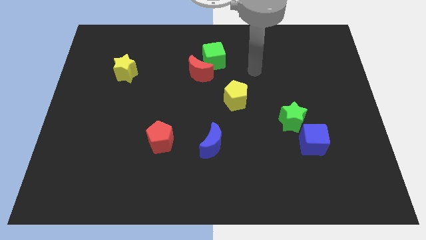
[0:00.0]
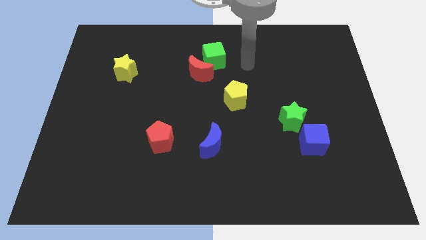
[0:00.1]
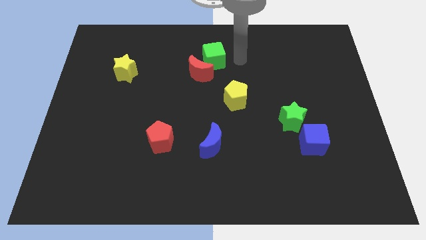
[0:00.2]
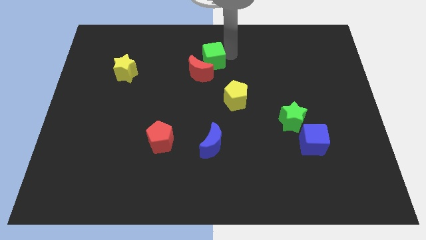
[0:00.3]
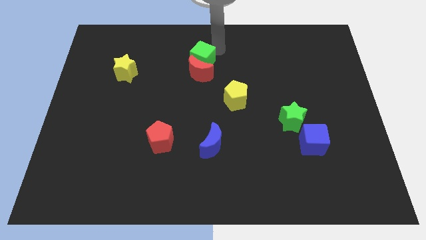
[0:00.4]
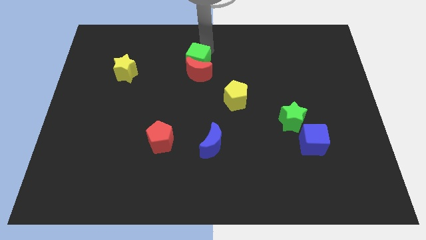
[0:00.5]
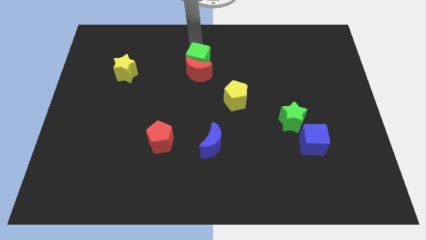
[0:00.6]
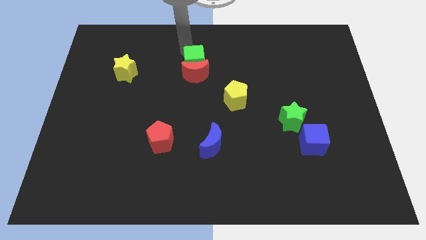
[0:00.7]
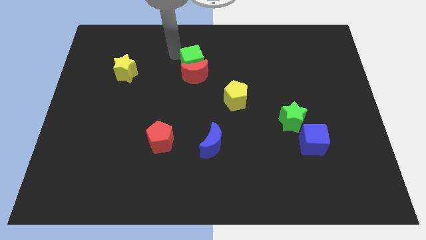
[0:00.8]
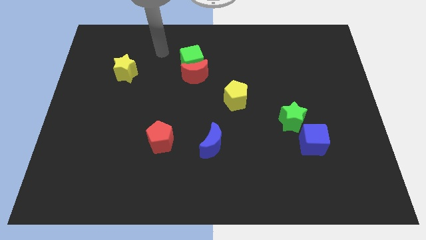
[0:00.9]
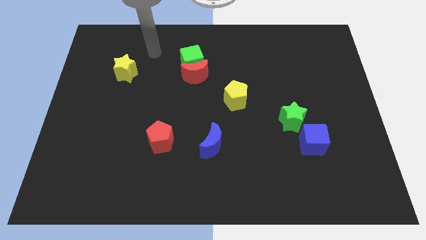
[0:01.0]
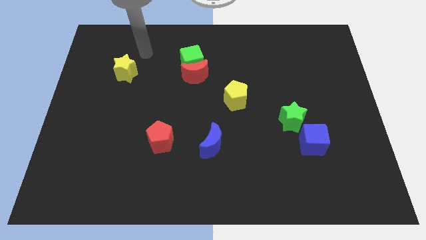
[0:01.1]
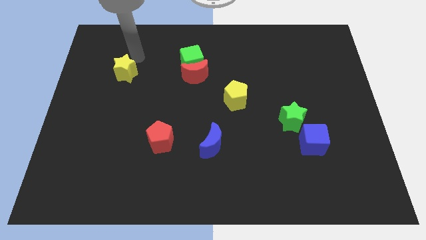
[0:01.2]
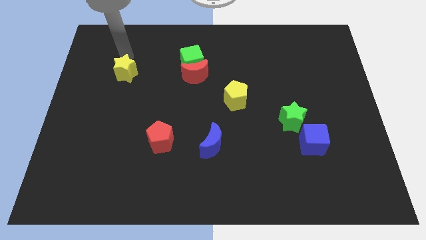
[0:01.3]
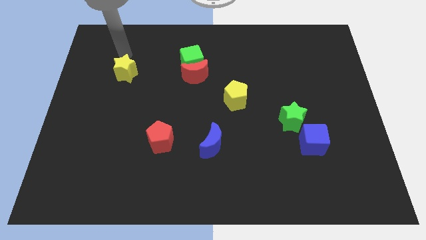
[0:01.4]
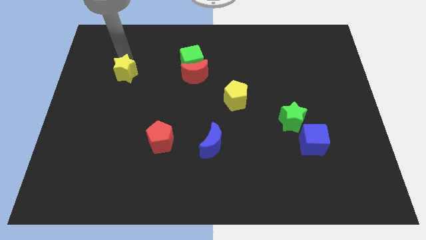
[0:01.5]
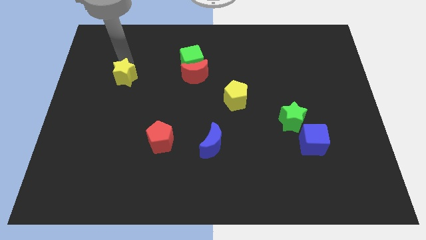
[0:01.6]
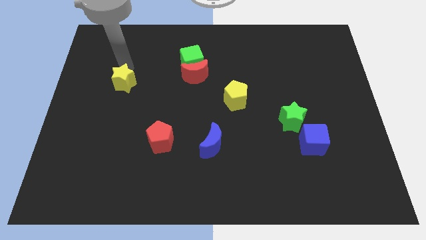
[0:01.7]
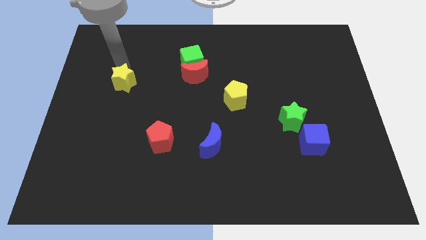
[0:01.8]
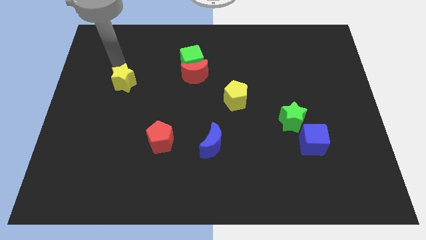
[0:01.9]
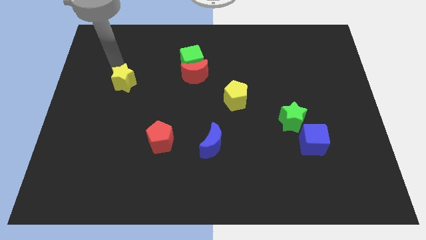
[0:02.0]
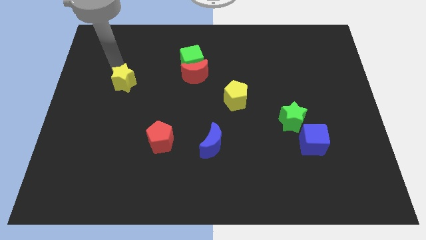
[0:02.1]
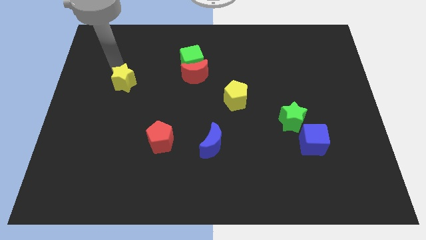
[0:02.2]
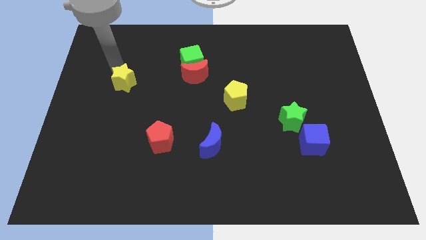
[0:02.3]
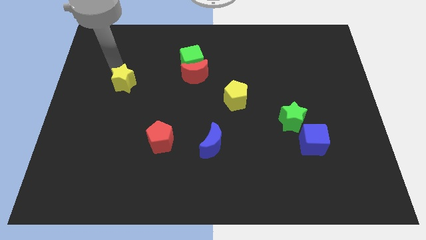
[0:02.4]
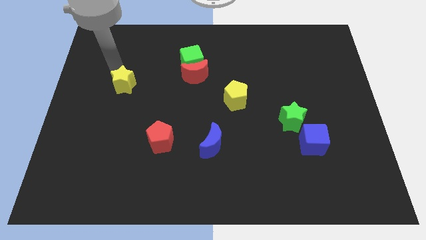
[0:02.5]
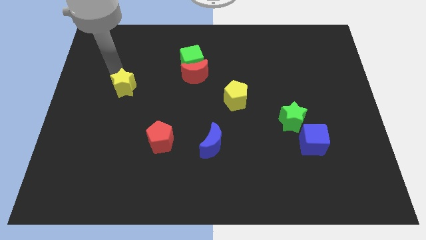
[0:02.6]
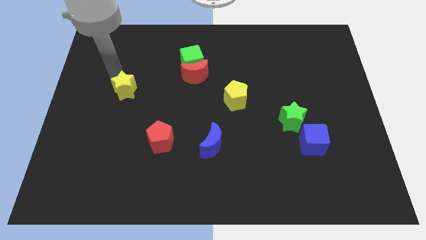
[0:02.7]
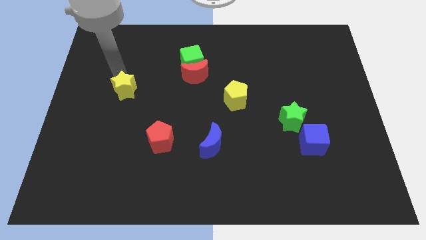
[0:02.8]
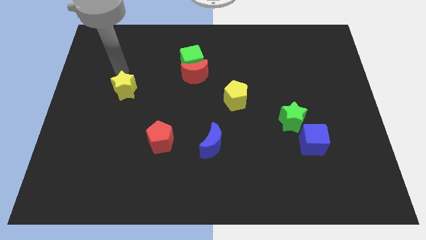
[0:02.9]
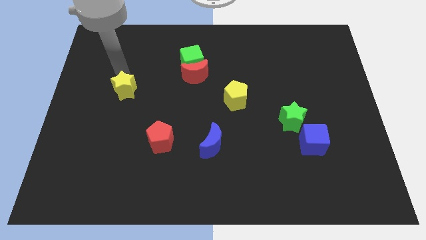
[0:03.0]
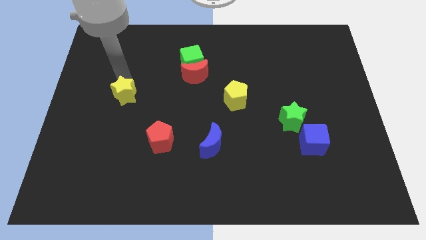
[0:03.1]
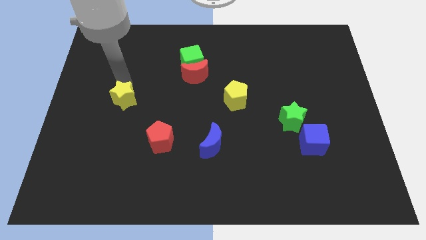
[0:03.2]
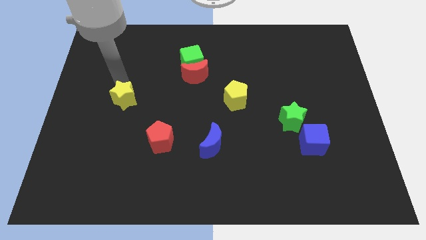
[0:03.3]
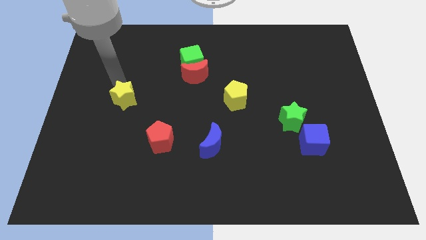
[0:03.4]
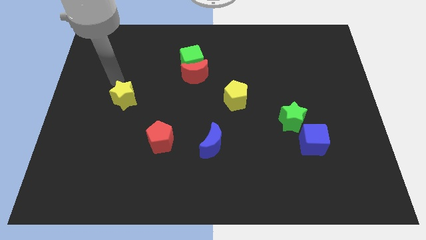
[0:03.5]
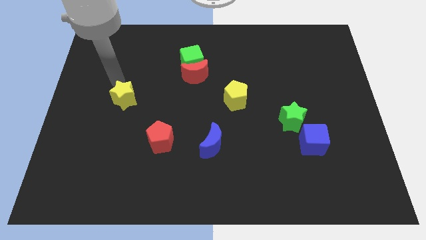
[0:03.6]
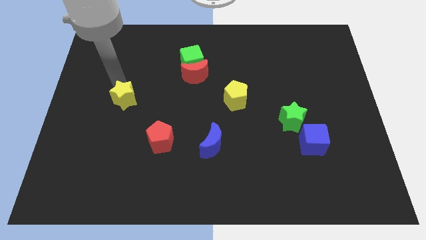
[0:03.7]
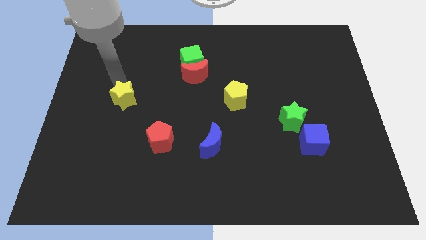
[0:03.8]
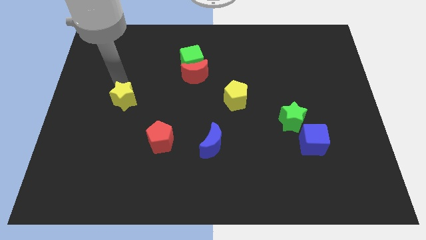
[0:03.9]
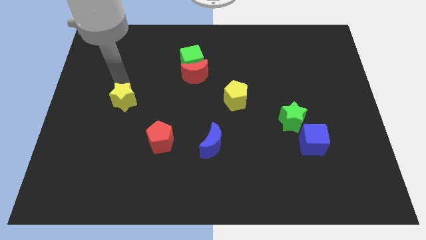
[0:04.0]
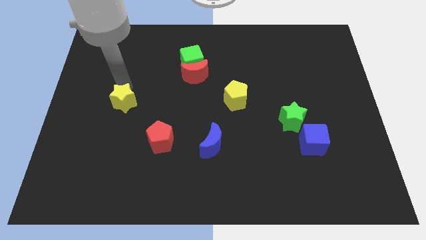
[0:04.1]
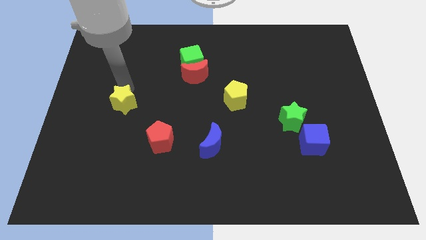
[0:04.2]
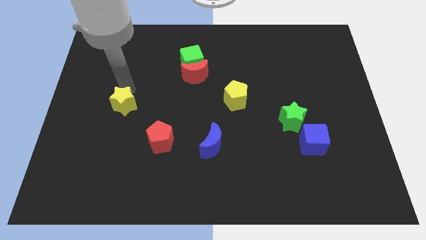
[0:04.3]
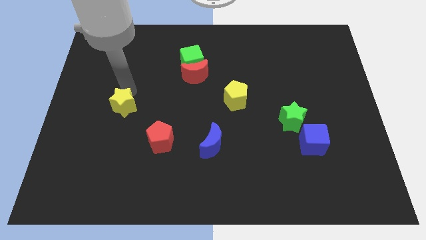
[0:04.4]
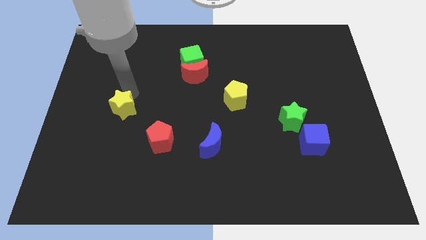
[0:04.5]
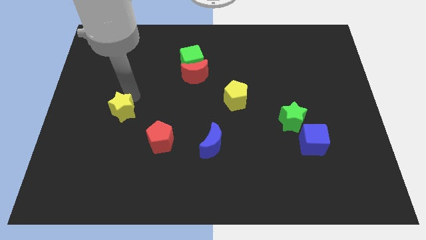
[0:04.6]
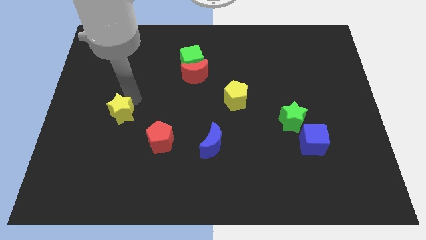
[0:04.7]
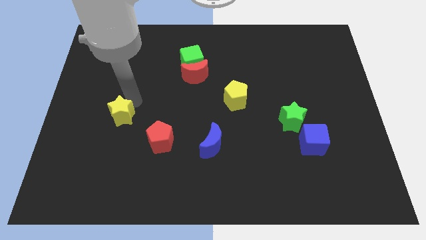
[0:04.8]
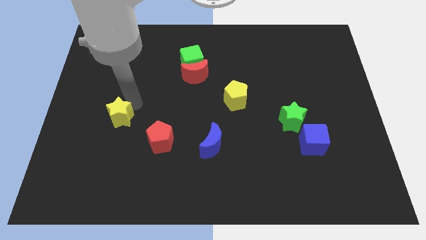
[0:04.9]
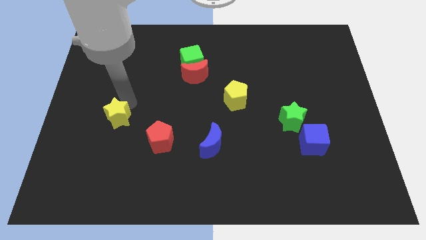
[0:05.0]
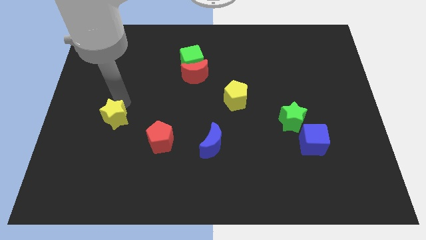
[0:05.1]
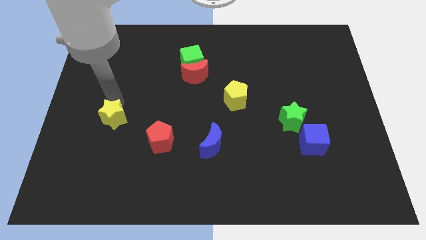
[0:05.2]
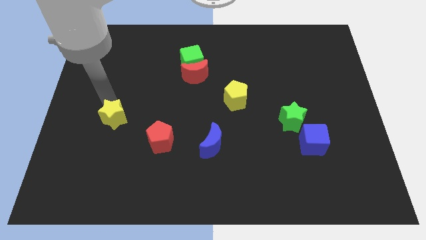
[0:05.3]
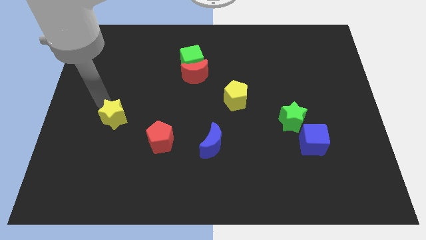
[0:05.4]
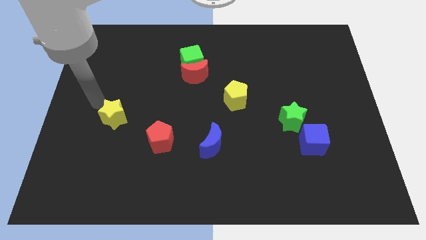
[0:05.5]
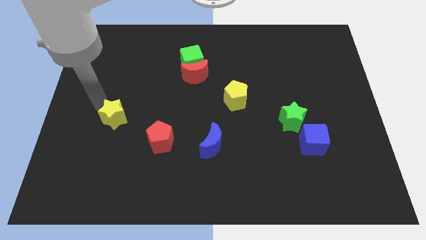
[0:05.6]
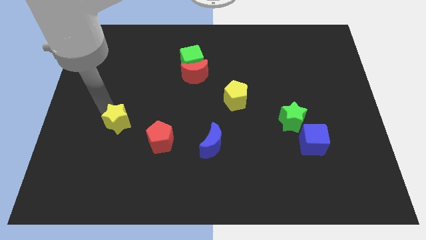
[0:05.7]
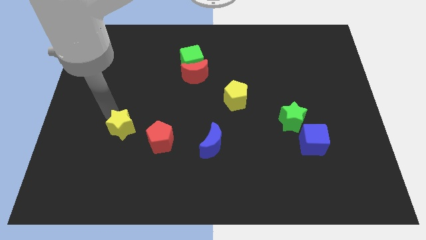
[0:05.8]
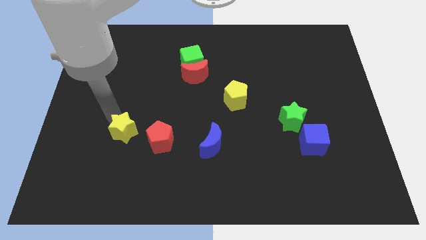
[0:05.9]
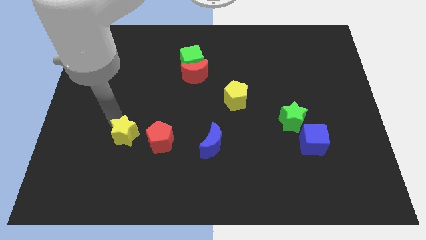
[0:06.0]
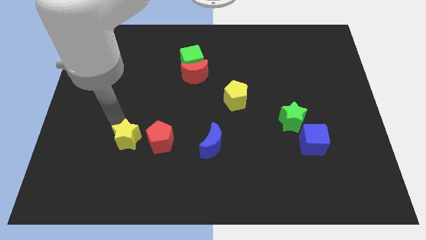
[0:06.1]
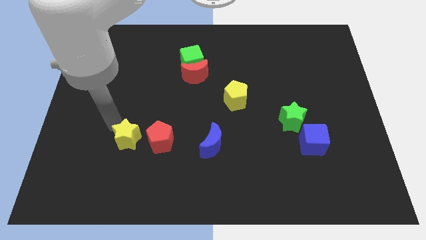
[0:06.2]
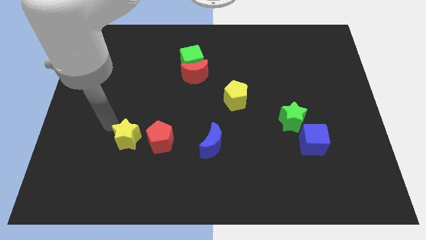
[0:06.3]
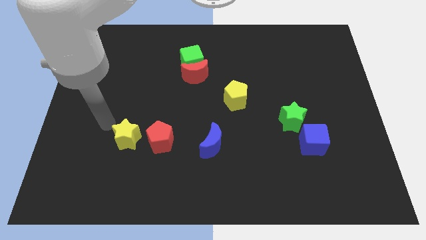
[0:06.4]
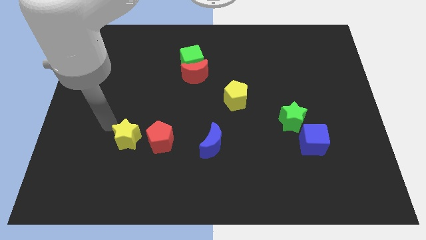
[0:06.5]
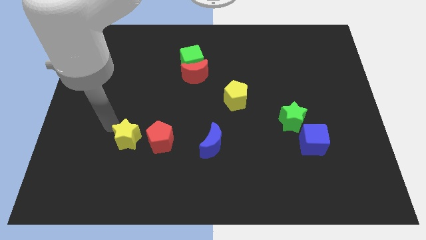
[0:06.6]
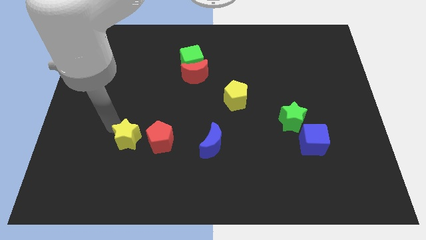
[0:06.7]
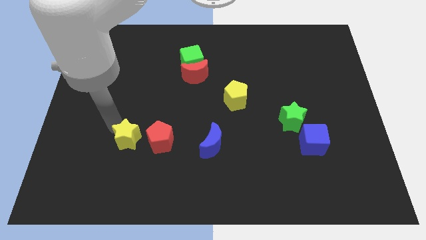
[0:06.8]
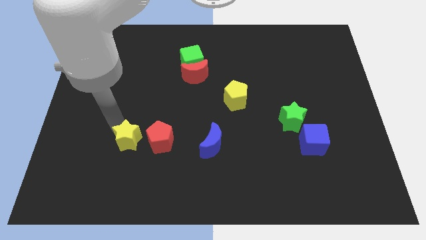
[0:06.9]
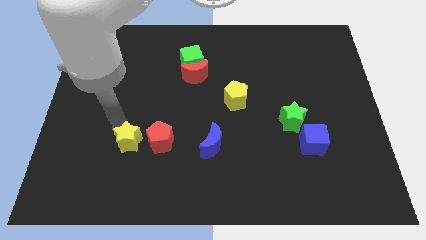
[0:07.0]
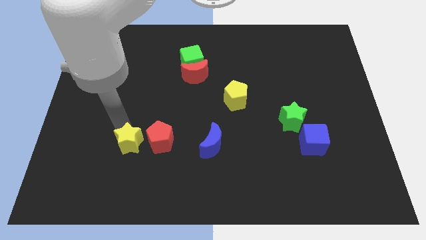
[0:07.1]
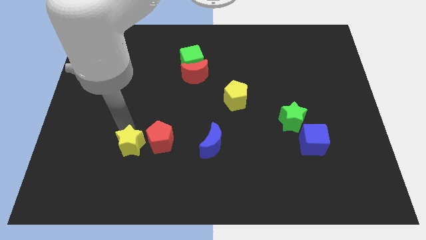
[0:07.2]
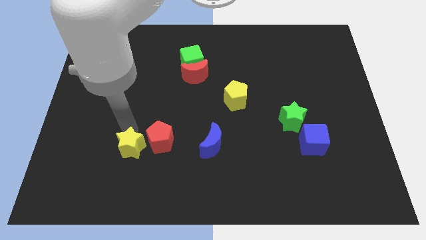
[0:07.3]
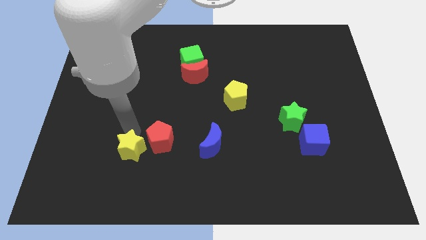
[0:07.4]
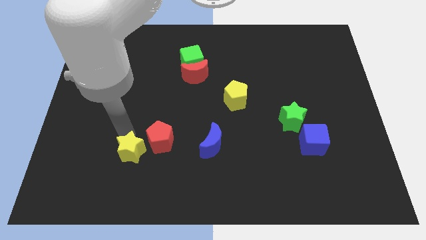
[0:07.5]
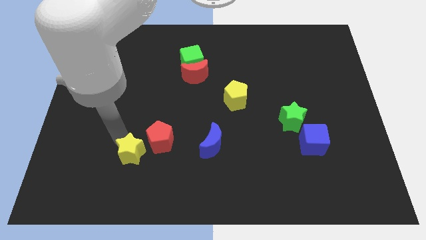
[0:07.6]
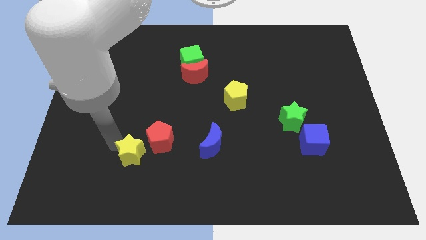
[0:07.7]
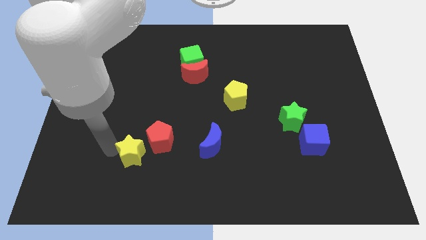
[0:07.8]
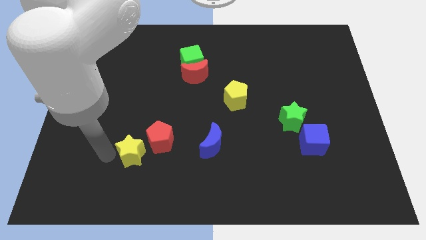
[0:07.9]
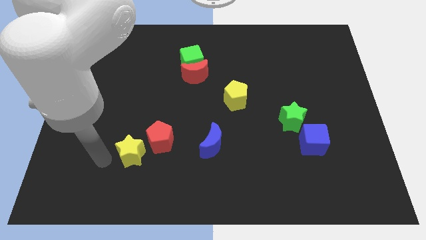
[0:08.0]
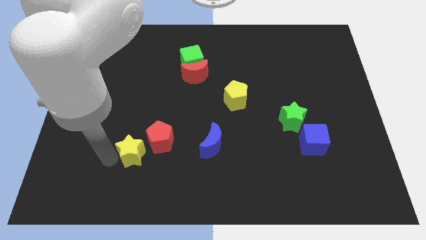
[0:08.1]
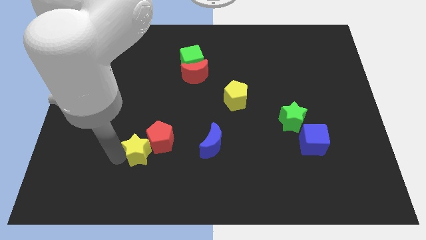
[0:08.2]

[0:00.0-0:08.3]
push the yellow star just left of the blue moon
